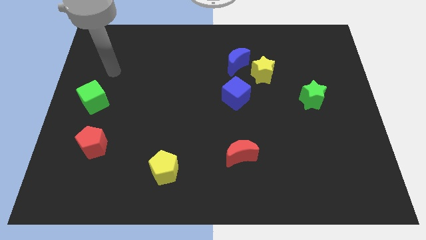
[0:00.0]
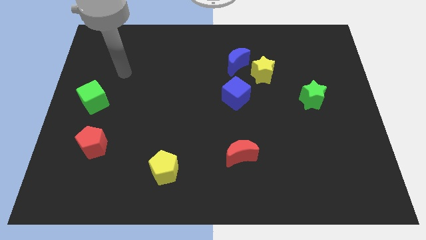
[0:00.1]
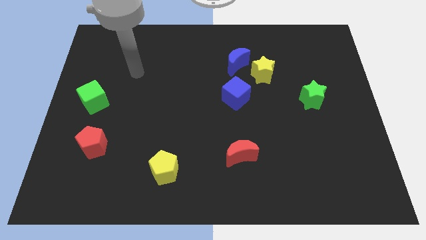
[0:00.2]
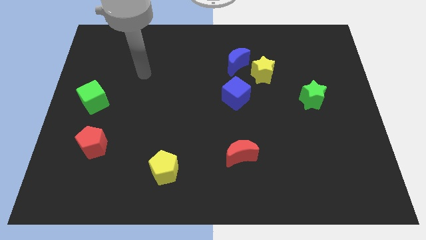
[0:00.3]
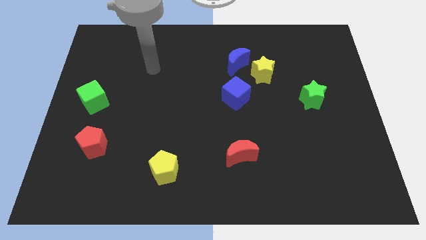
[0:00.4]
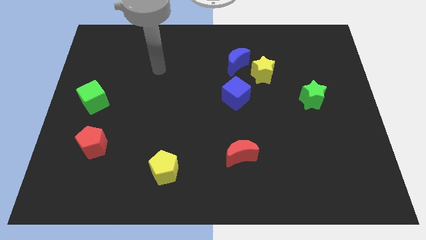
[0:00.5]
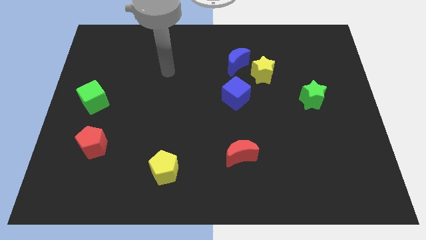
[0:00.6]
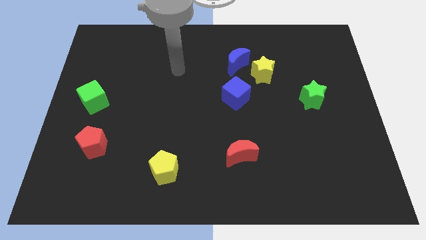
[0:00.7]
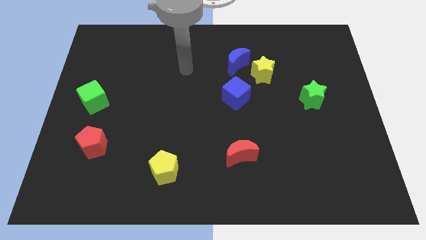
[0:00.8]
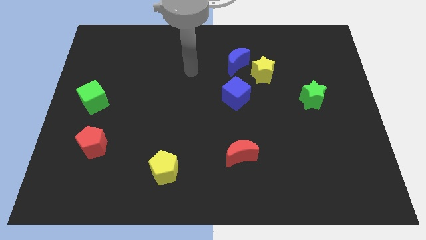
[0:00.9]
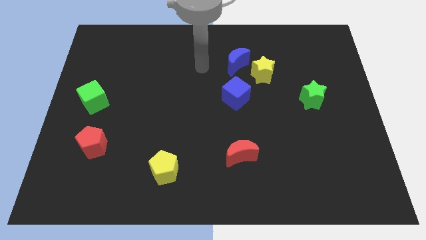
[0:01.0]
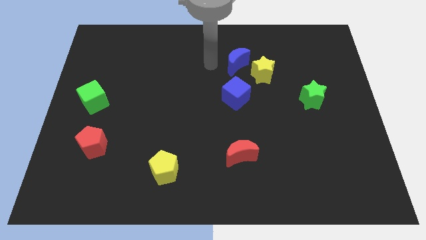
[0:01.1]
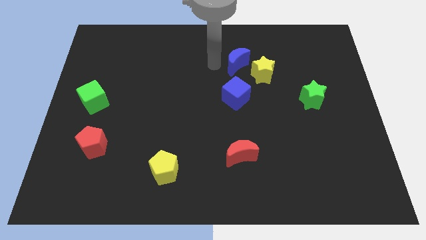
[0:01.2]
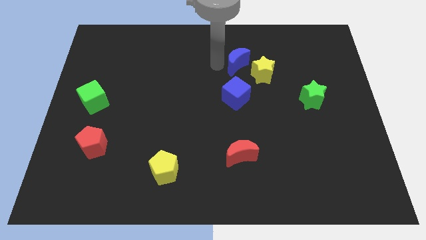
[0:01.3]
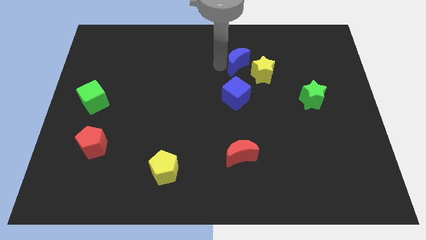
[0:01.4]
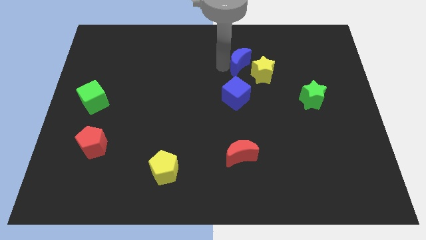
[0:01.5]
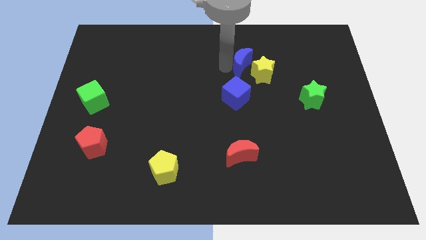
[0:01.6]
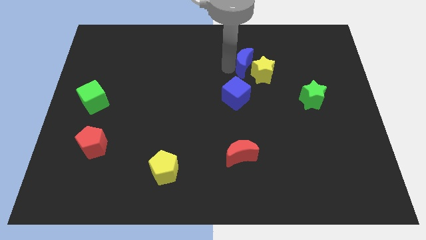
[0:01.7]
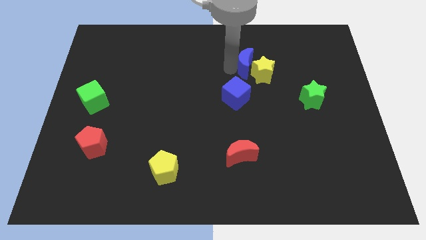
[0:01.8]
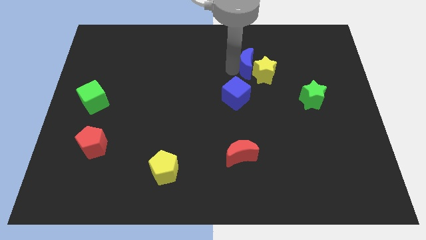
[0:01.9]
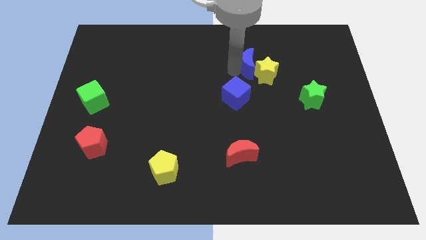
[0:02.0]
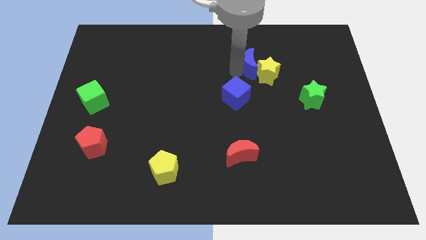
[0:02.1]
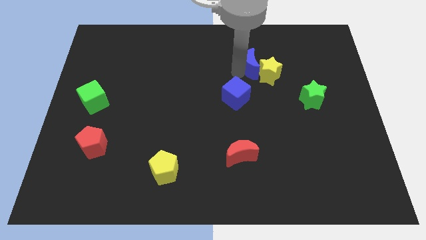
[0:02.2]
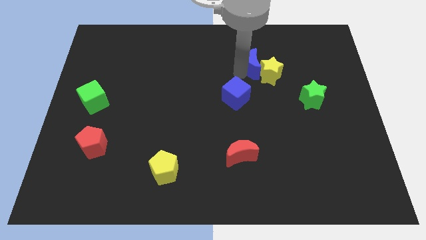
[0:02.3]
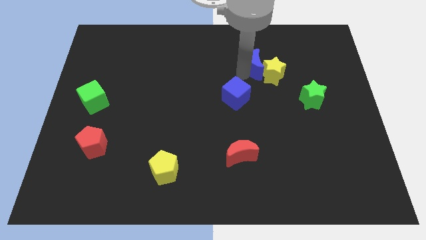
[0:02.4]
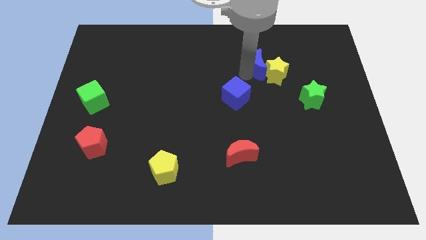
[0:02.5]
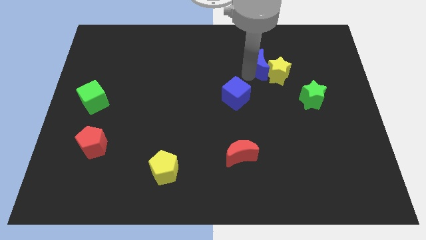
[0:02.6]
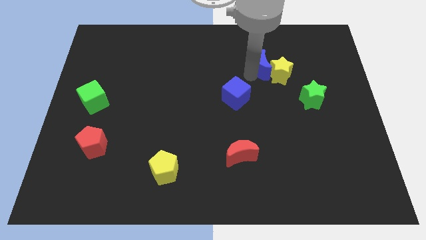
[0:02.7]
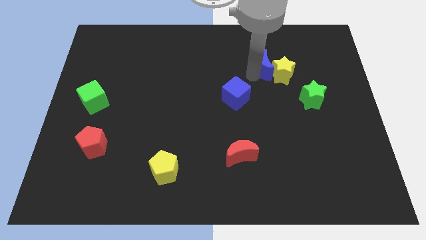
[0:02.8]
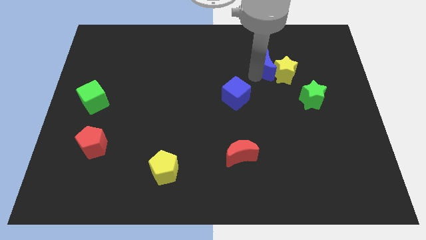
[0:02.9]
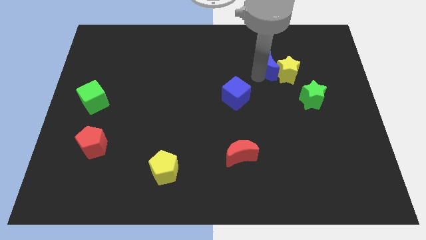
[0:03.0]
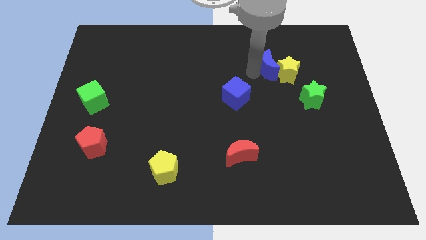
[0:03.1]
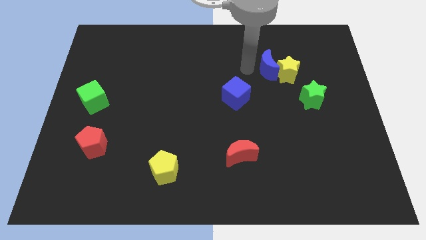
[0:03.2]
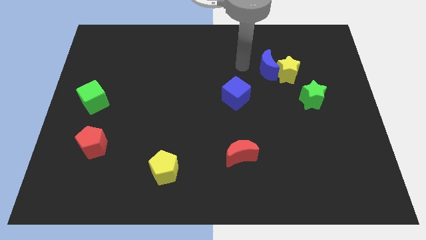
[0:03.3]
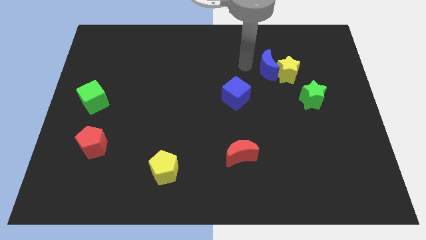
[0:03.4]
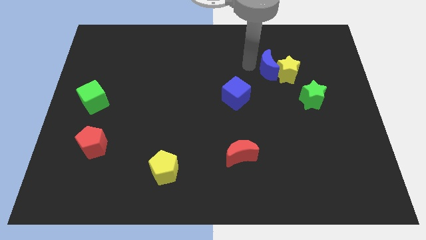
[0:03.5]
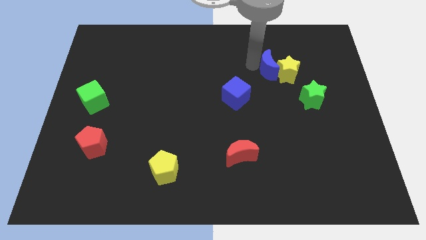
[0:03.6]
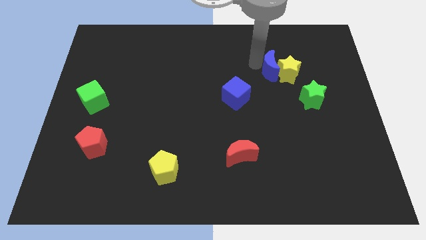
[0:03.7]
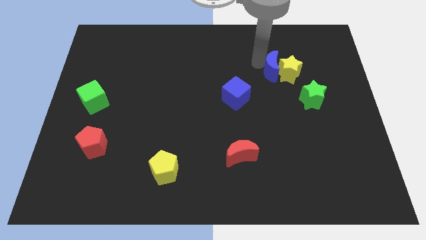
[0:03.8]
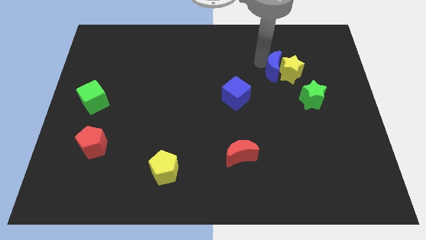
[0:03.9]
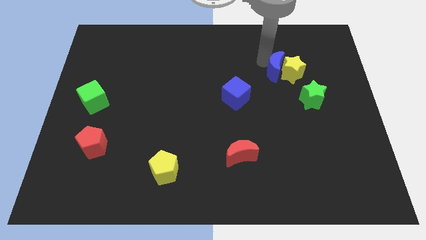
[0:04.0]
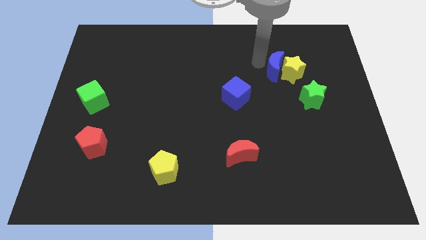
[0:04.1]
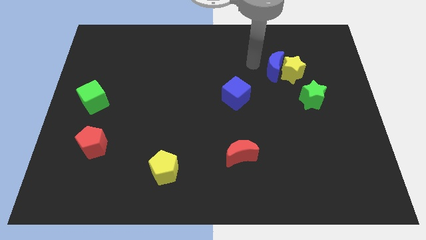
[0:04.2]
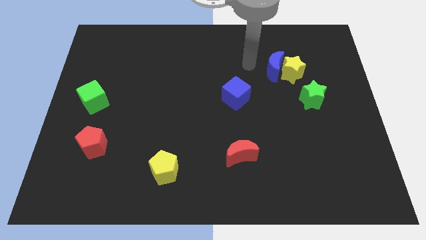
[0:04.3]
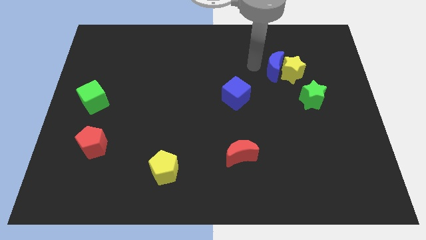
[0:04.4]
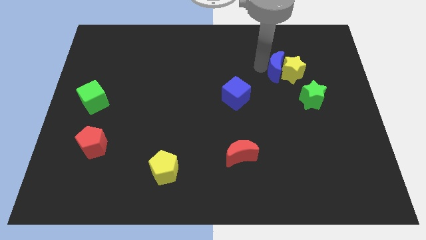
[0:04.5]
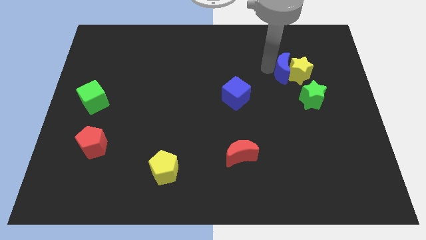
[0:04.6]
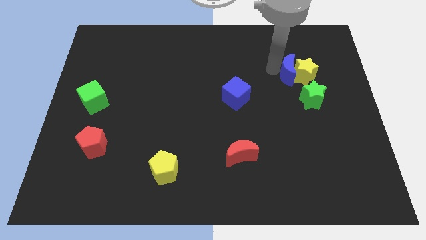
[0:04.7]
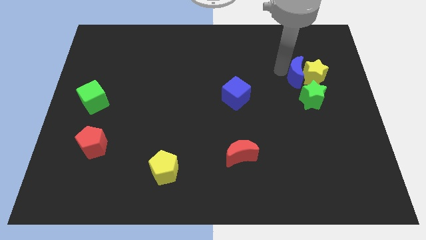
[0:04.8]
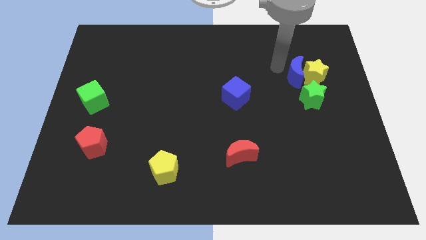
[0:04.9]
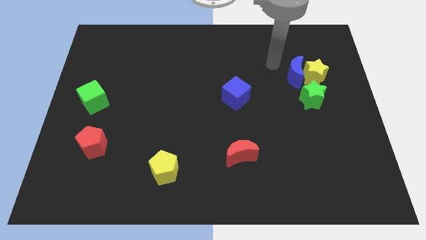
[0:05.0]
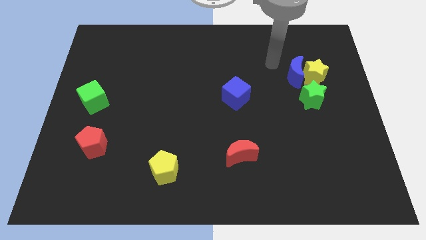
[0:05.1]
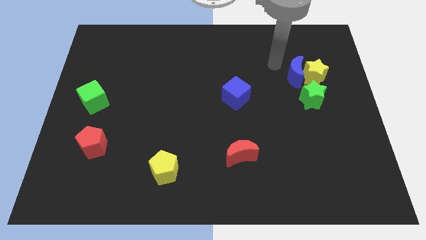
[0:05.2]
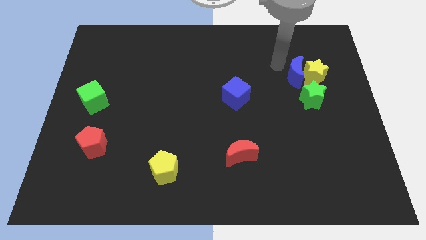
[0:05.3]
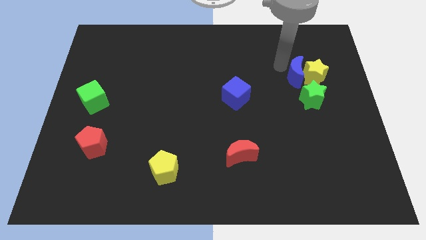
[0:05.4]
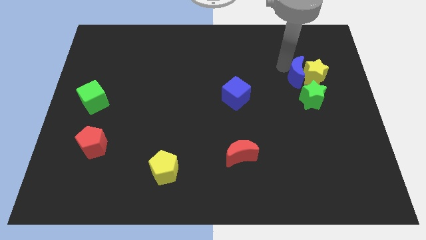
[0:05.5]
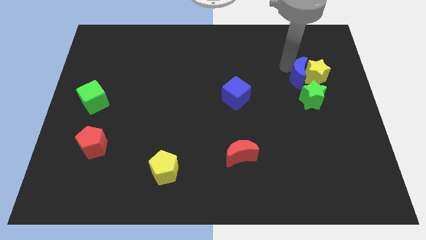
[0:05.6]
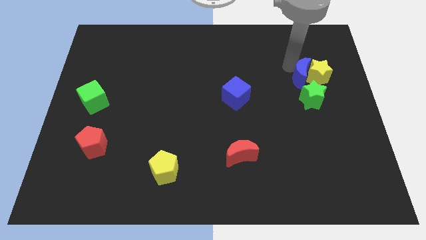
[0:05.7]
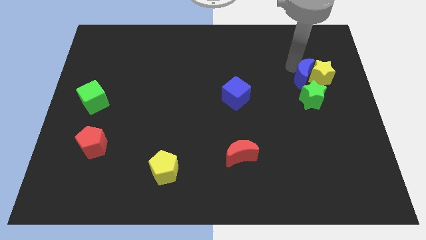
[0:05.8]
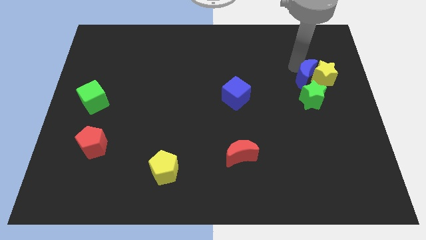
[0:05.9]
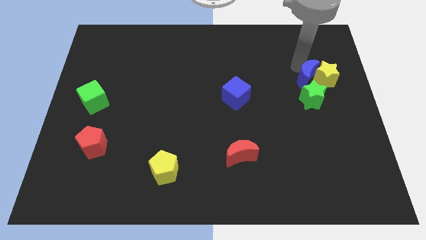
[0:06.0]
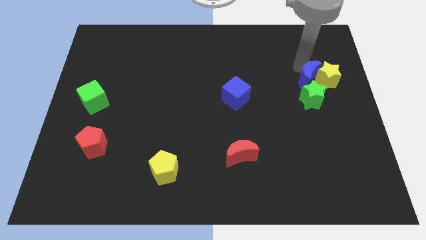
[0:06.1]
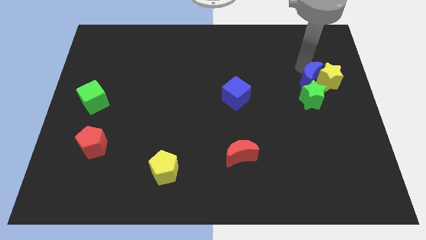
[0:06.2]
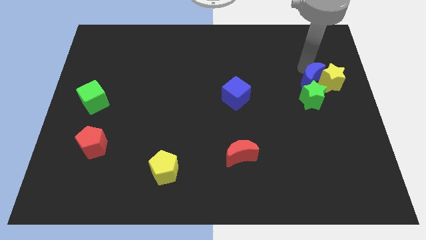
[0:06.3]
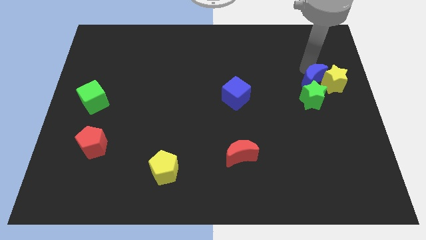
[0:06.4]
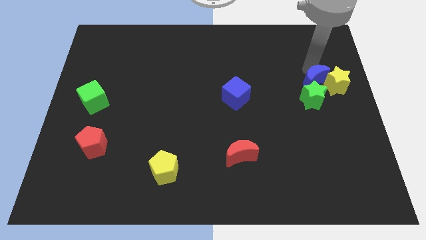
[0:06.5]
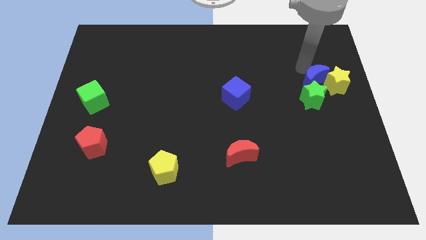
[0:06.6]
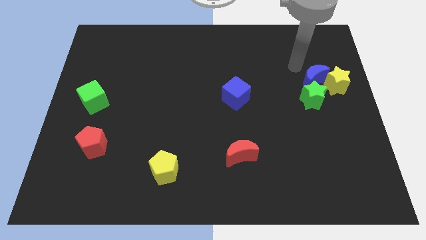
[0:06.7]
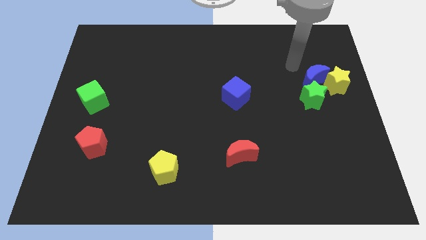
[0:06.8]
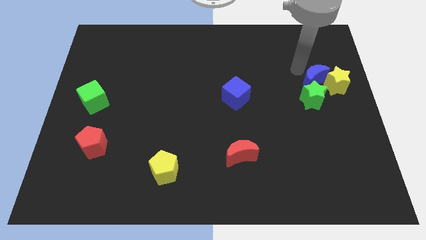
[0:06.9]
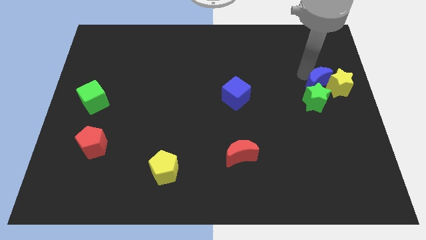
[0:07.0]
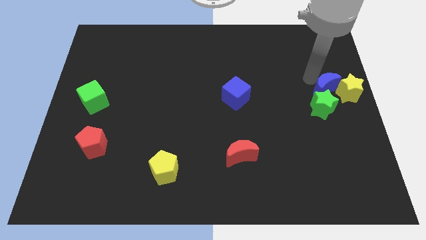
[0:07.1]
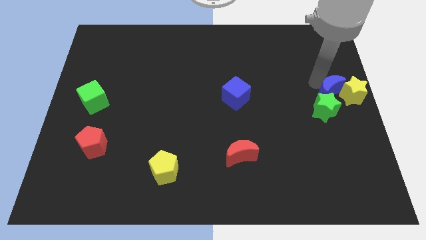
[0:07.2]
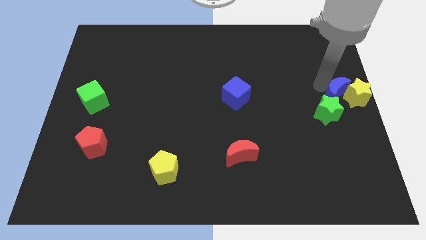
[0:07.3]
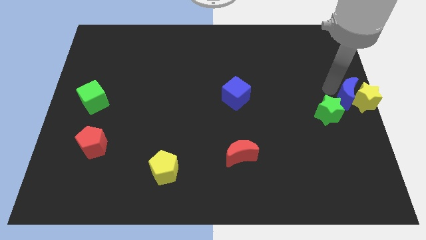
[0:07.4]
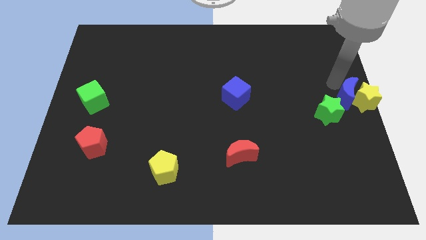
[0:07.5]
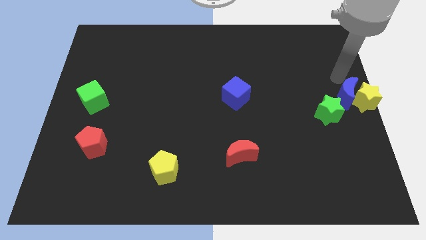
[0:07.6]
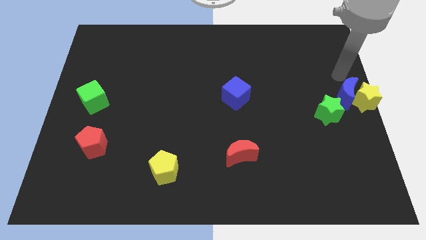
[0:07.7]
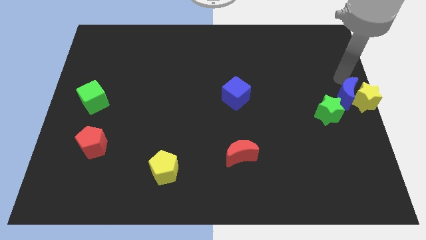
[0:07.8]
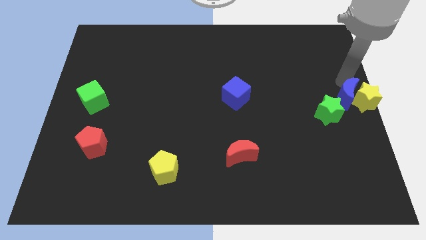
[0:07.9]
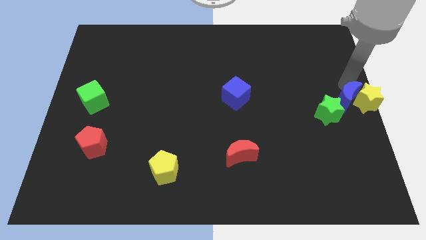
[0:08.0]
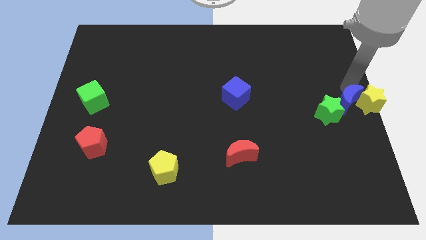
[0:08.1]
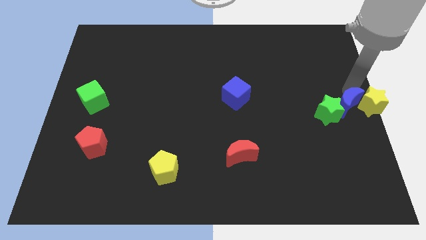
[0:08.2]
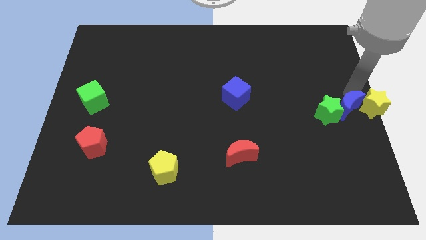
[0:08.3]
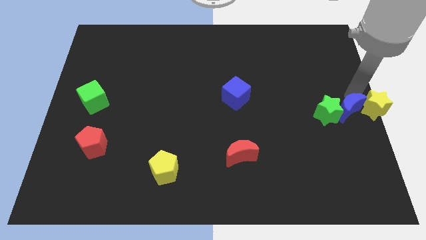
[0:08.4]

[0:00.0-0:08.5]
slide the blue moon diagonally down and to the right of the green star
